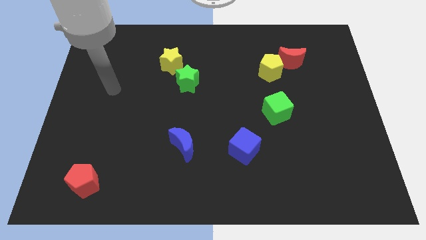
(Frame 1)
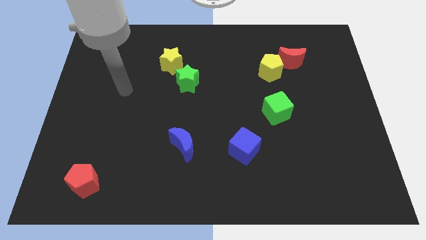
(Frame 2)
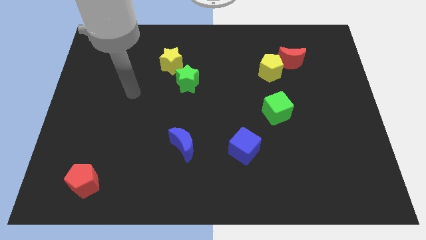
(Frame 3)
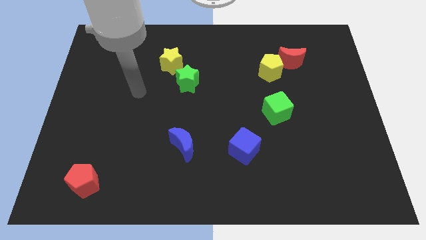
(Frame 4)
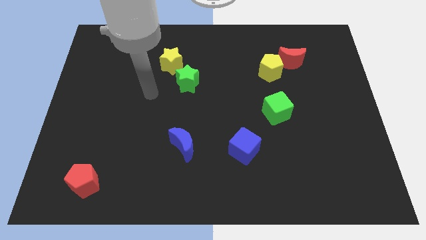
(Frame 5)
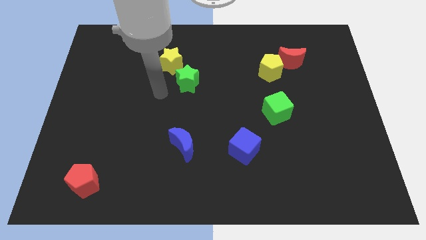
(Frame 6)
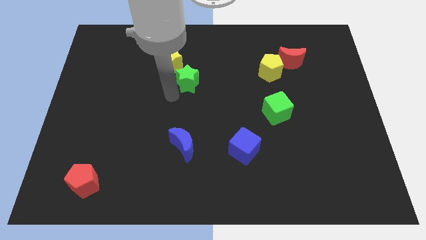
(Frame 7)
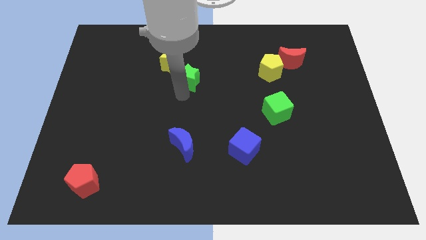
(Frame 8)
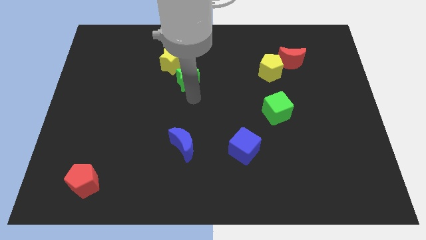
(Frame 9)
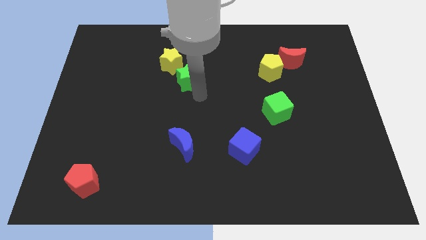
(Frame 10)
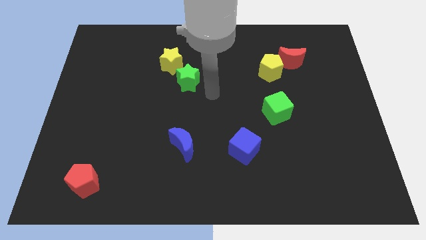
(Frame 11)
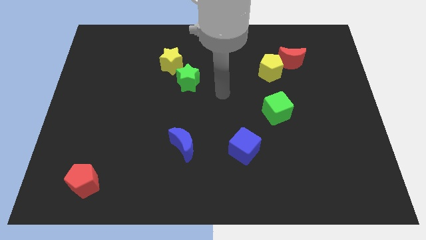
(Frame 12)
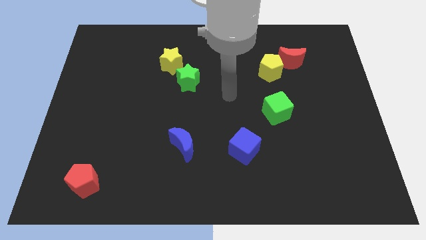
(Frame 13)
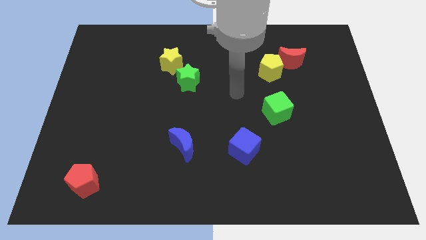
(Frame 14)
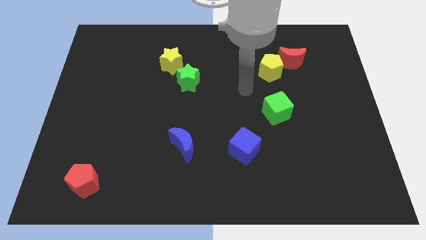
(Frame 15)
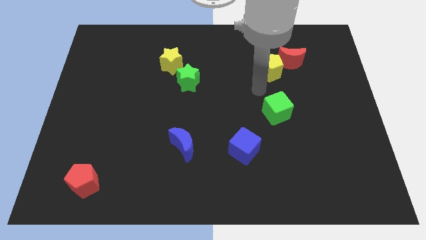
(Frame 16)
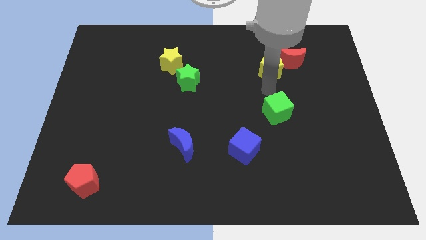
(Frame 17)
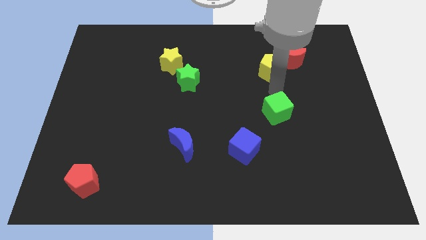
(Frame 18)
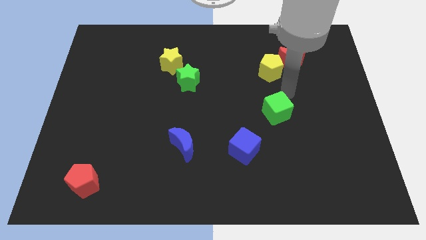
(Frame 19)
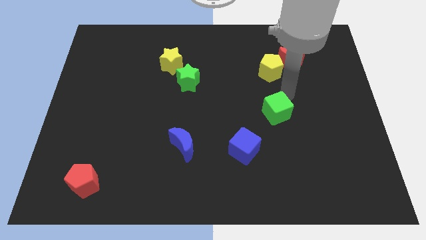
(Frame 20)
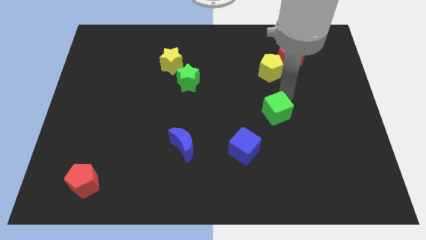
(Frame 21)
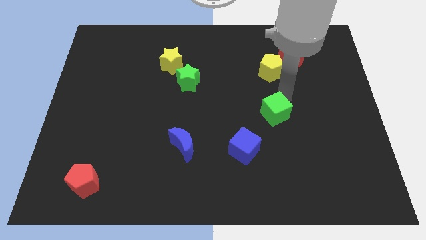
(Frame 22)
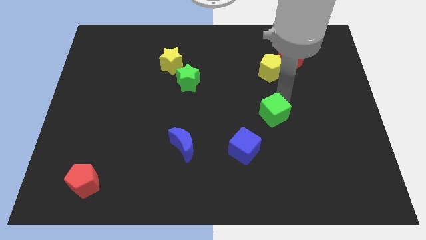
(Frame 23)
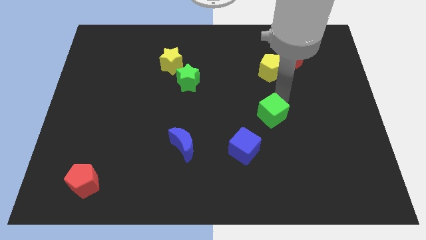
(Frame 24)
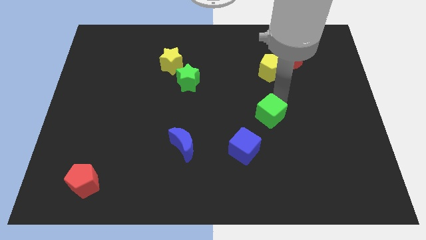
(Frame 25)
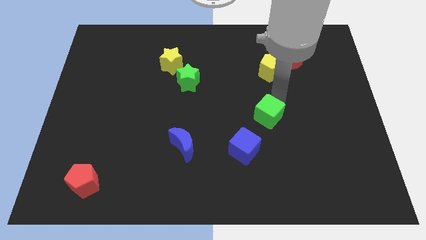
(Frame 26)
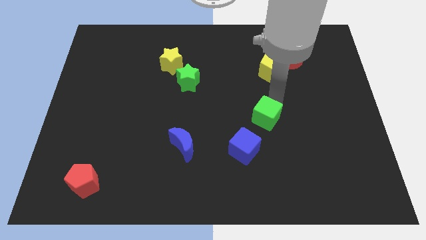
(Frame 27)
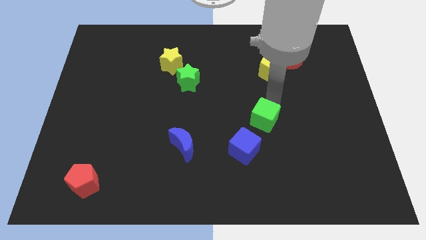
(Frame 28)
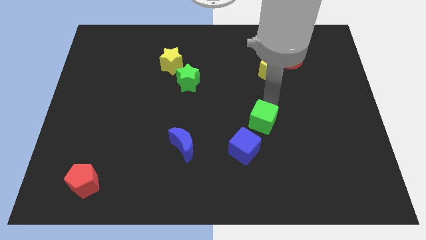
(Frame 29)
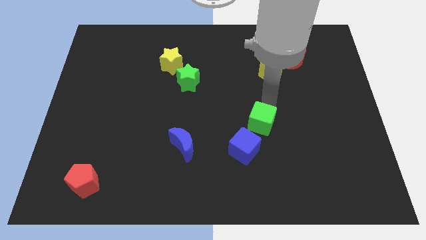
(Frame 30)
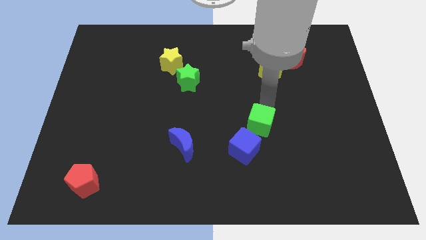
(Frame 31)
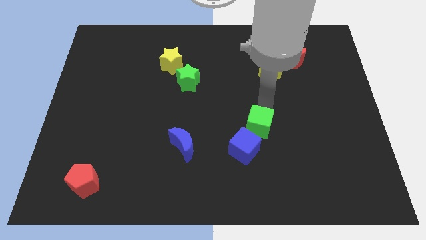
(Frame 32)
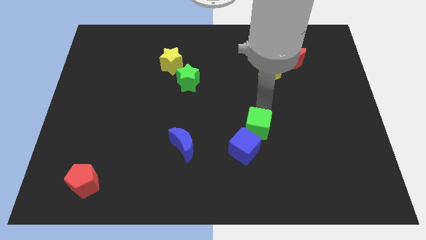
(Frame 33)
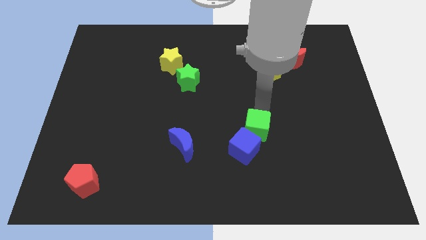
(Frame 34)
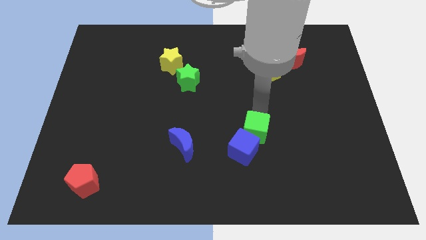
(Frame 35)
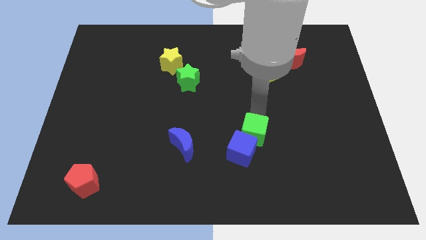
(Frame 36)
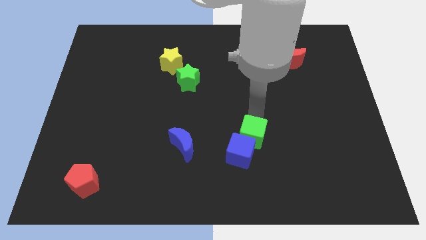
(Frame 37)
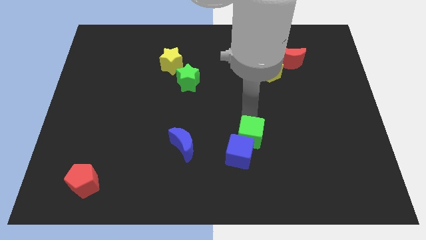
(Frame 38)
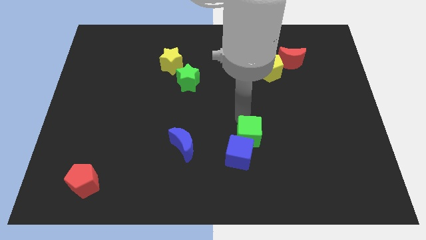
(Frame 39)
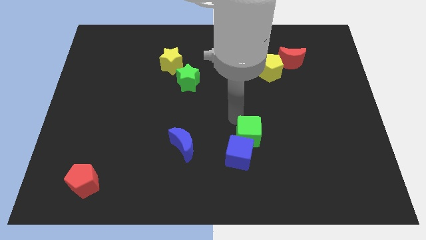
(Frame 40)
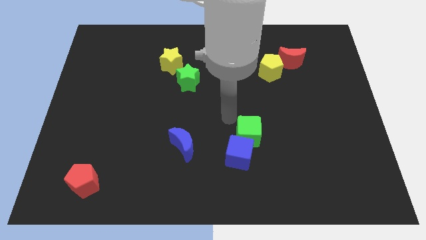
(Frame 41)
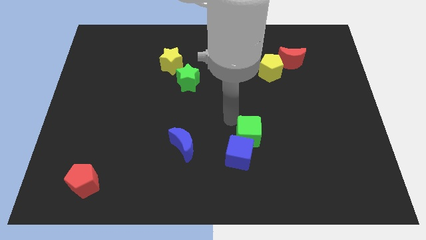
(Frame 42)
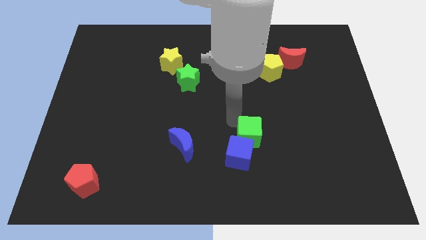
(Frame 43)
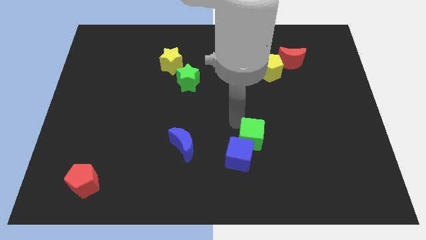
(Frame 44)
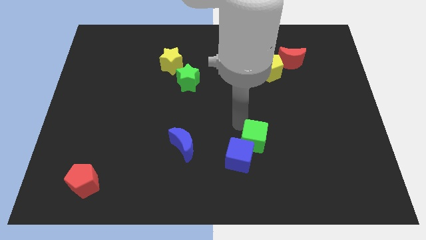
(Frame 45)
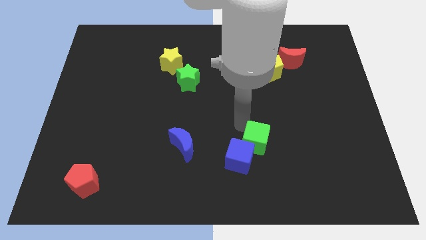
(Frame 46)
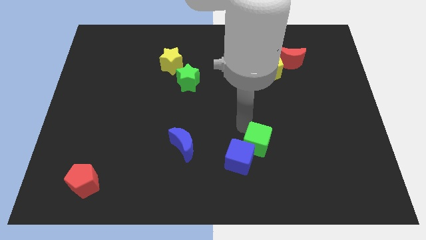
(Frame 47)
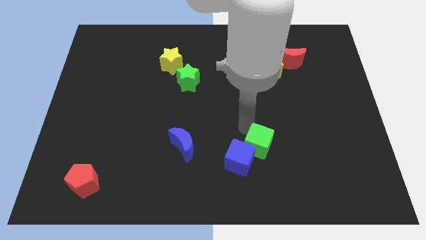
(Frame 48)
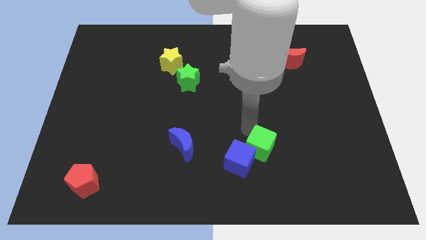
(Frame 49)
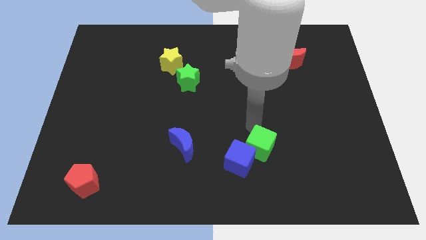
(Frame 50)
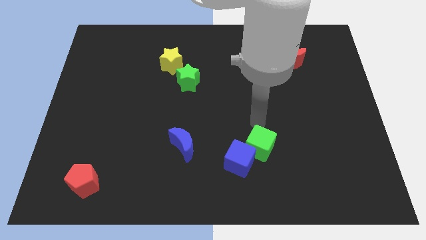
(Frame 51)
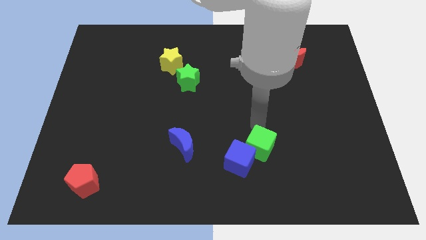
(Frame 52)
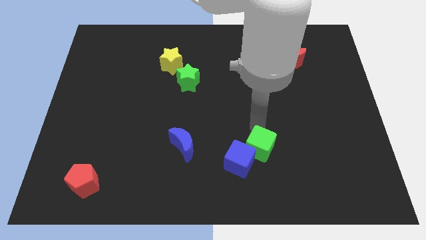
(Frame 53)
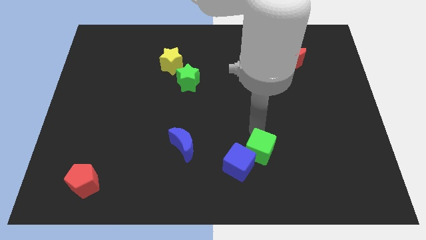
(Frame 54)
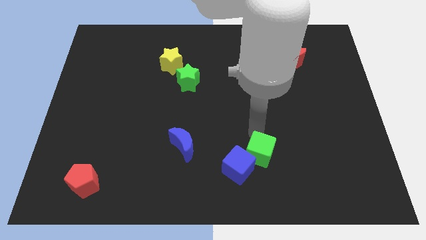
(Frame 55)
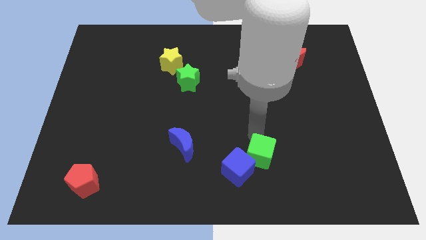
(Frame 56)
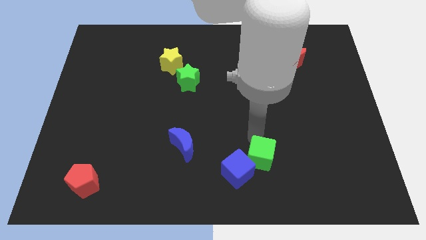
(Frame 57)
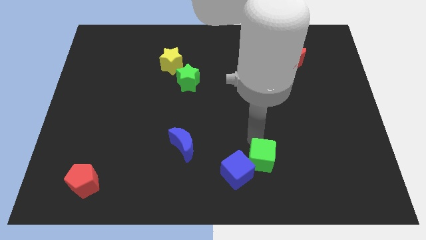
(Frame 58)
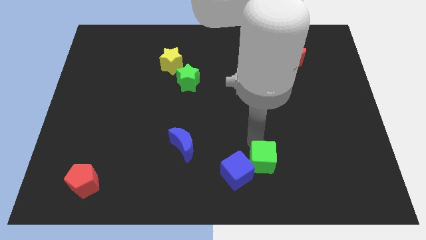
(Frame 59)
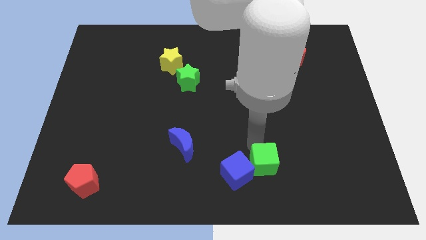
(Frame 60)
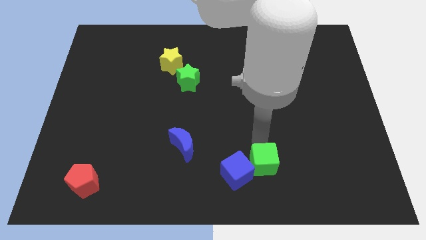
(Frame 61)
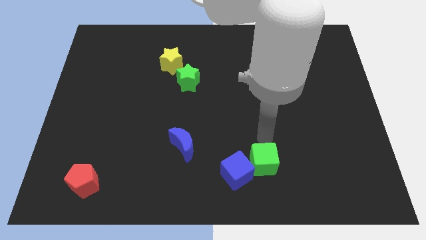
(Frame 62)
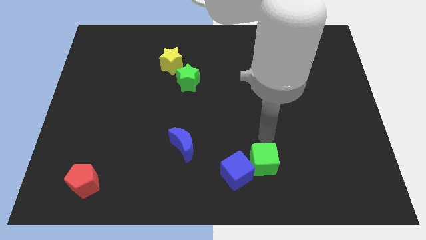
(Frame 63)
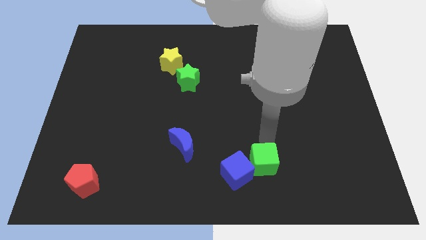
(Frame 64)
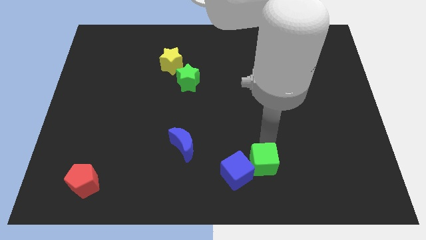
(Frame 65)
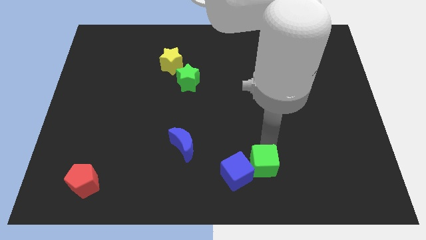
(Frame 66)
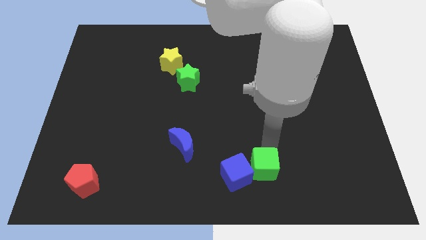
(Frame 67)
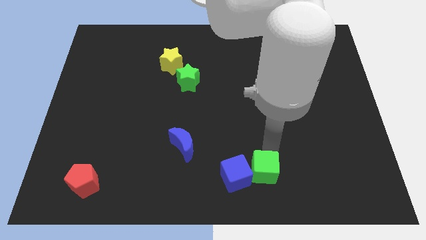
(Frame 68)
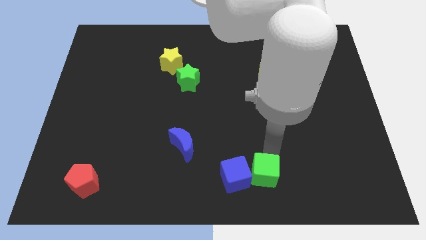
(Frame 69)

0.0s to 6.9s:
push the green cube to the bottom side
